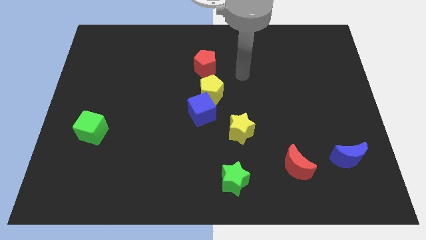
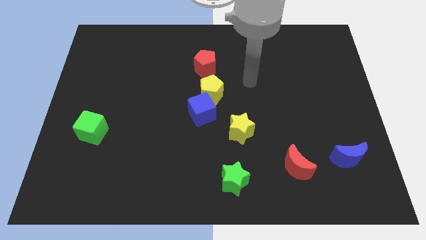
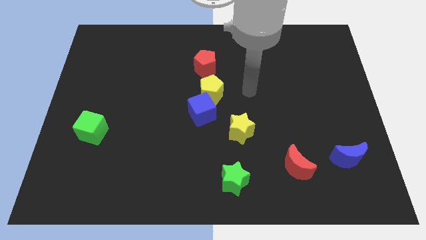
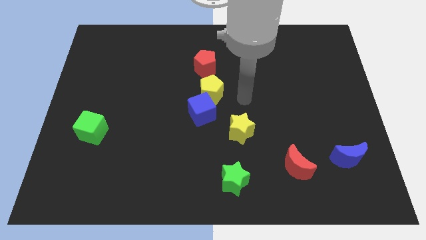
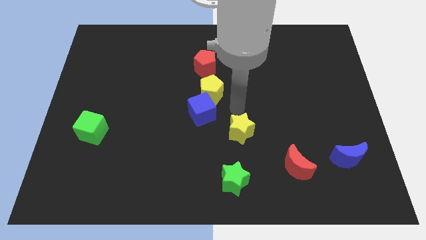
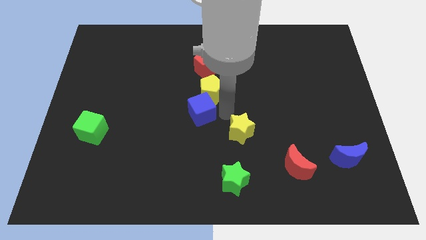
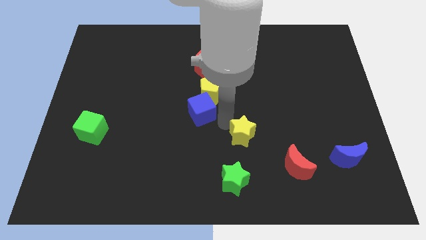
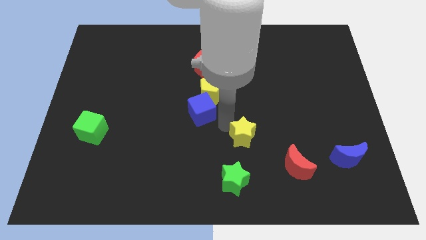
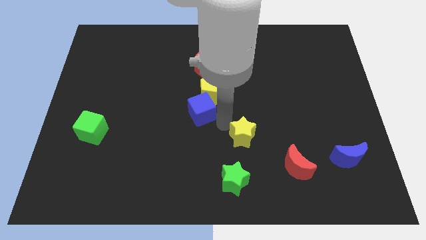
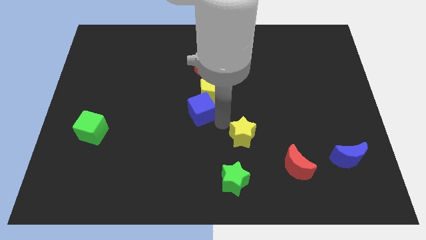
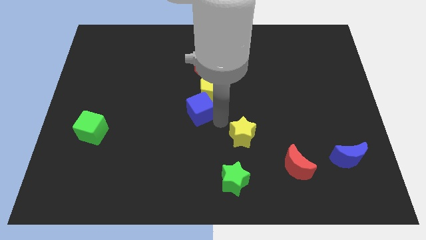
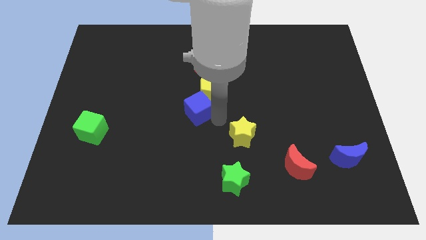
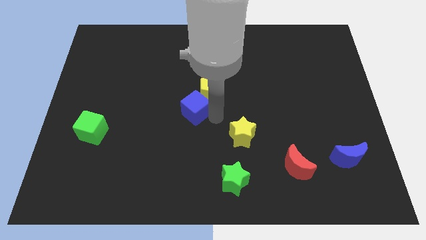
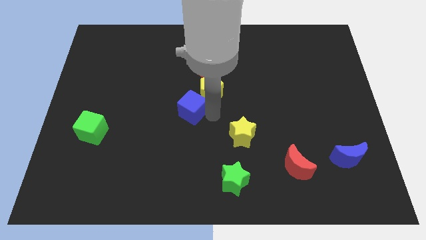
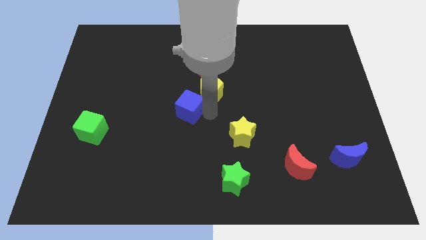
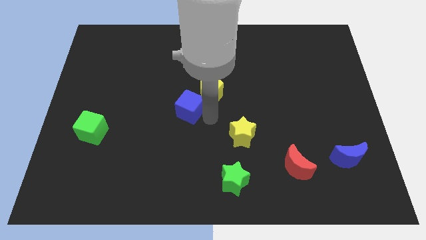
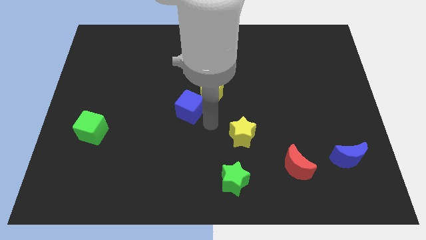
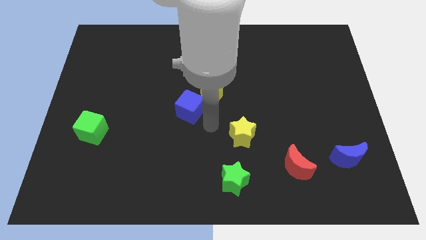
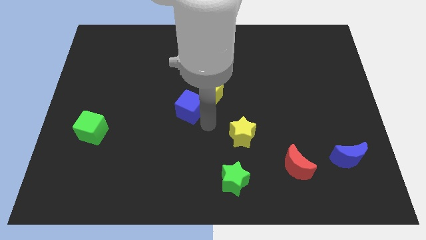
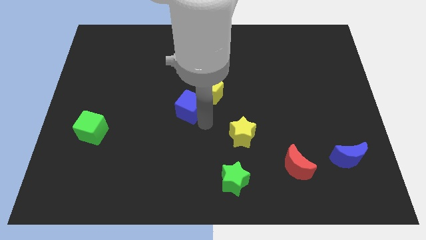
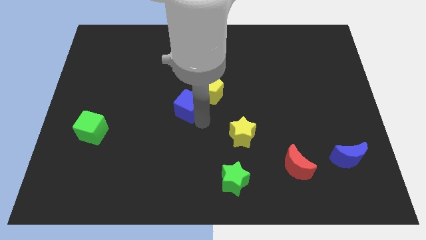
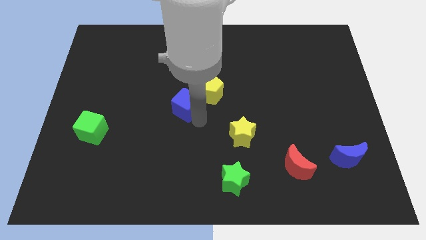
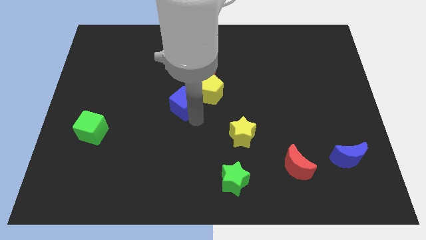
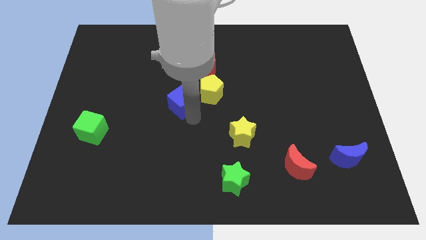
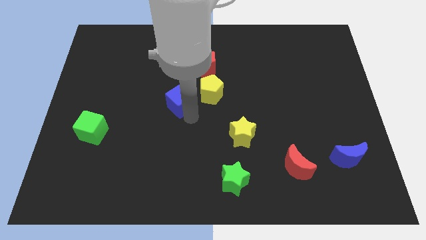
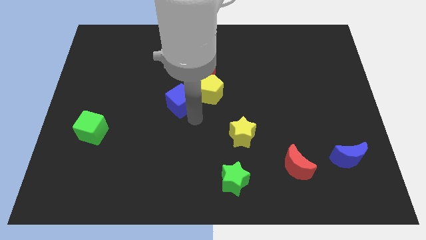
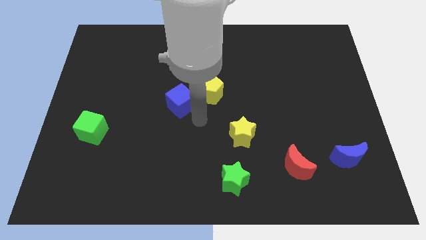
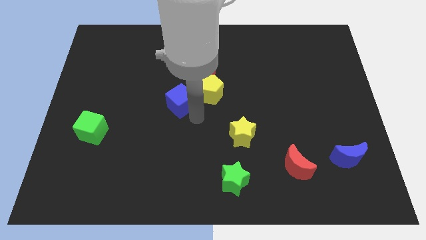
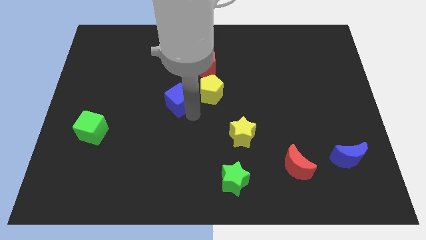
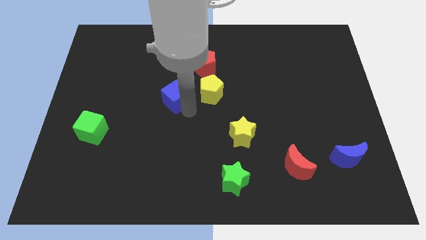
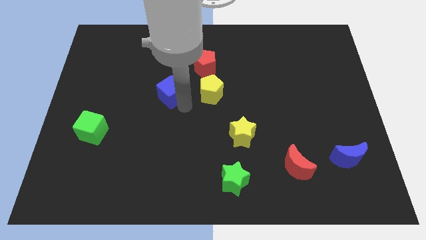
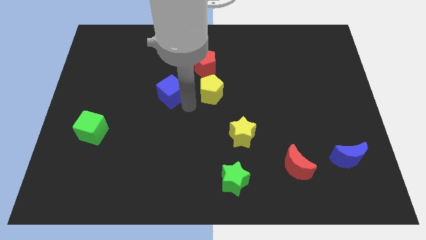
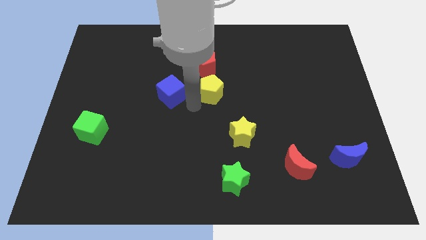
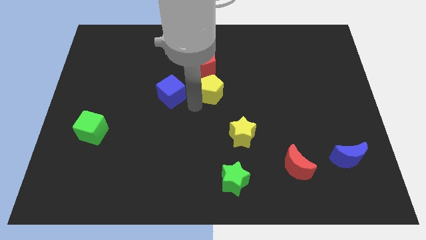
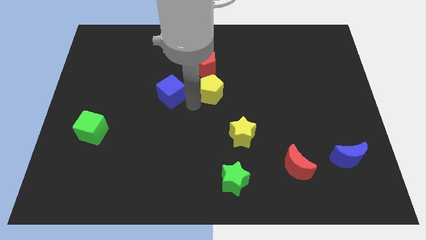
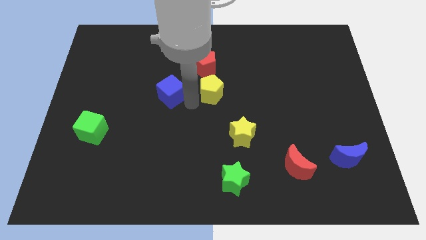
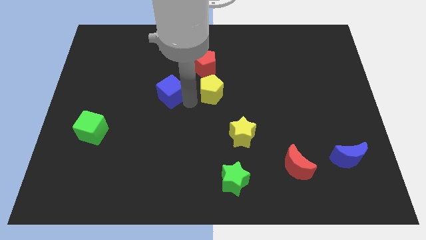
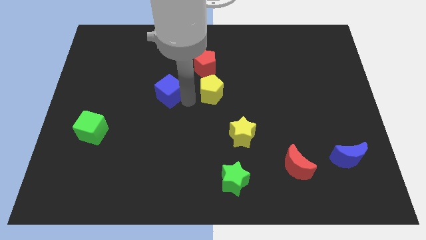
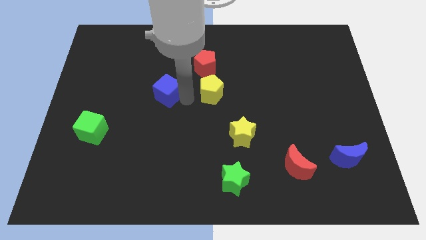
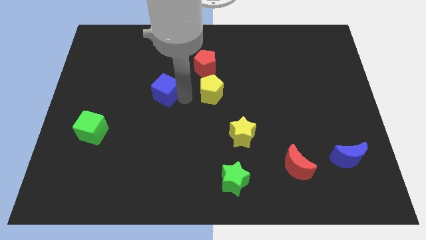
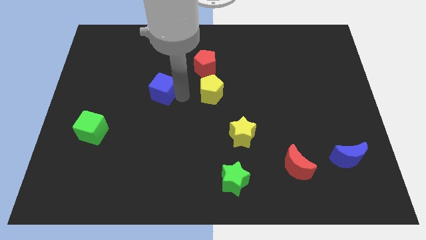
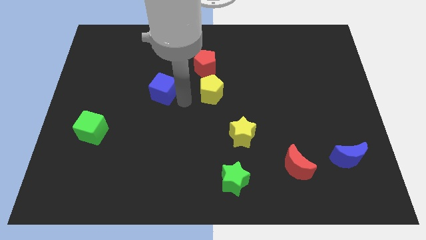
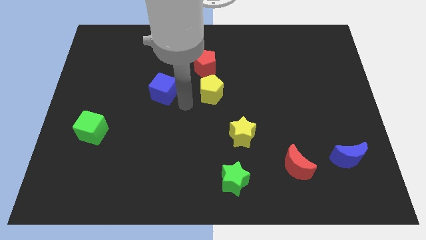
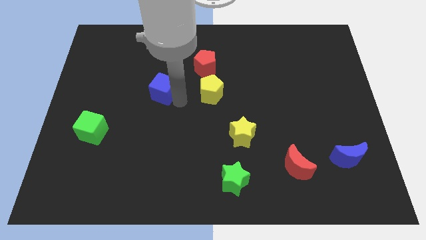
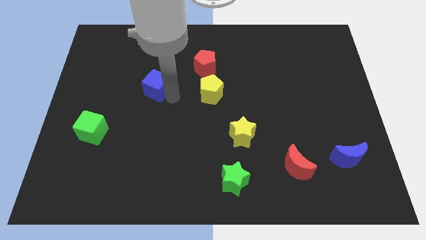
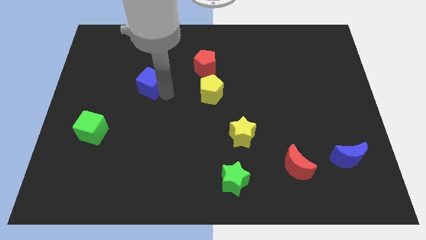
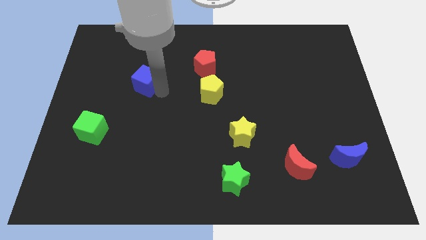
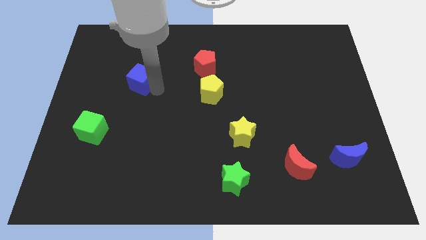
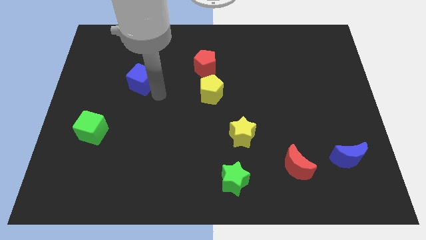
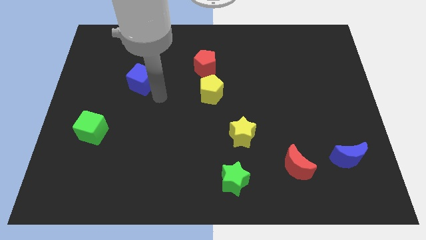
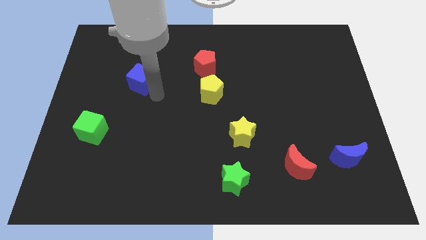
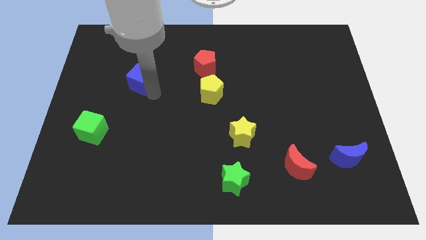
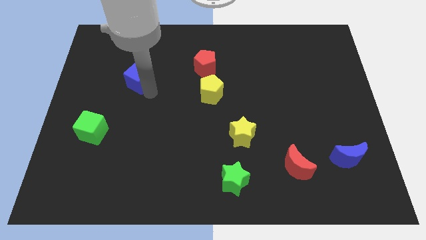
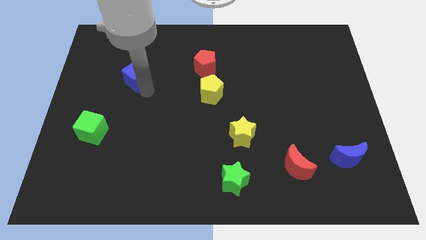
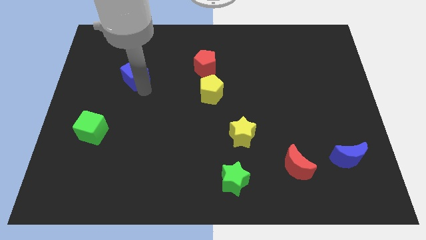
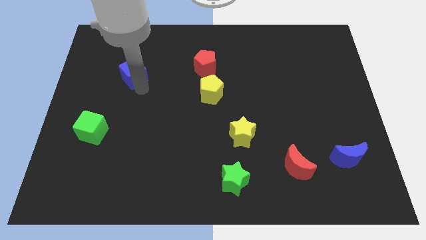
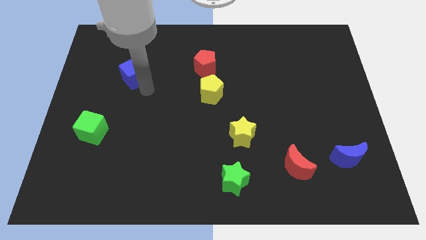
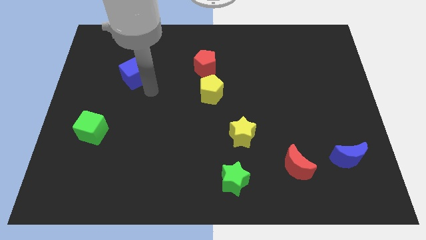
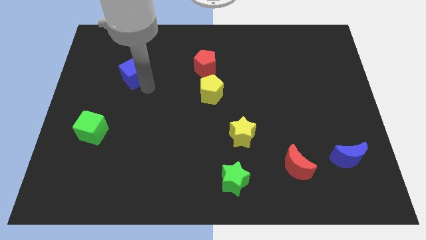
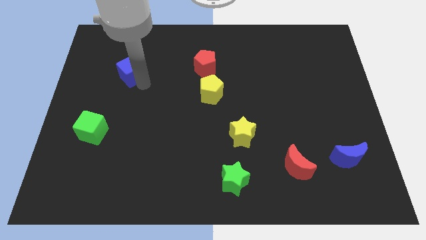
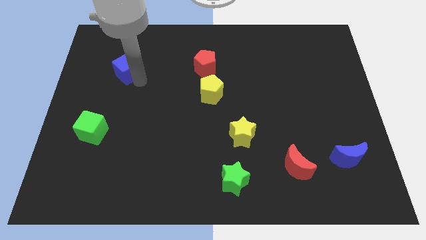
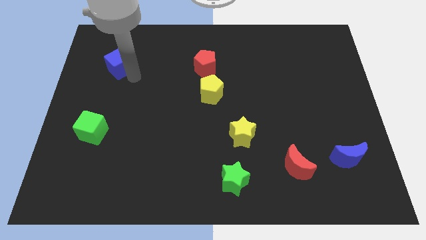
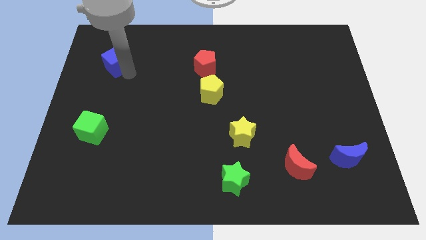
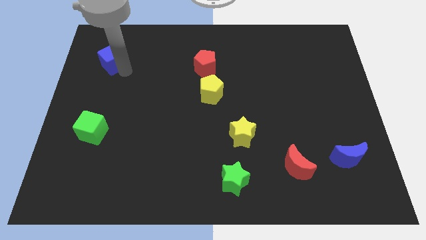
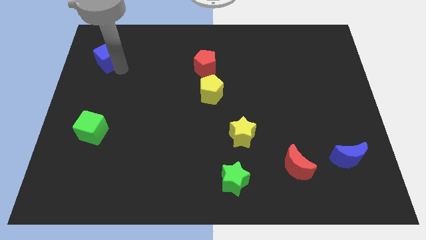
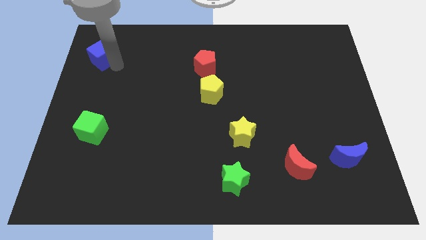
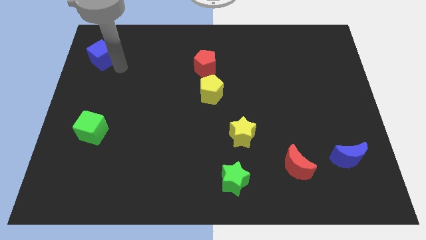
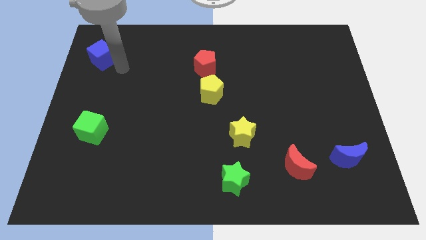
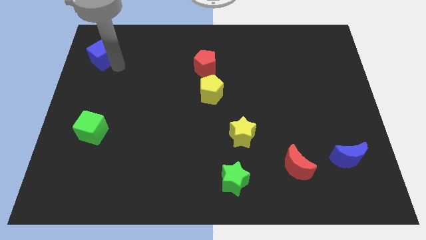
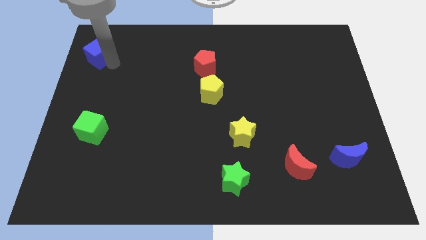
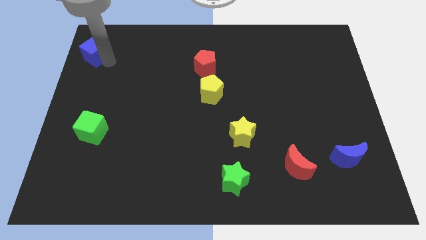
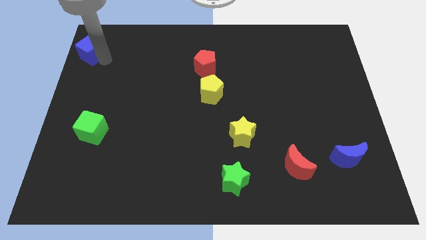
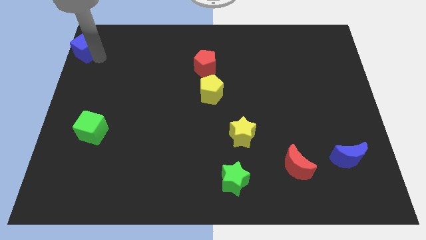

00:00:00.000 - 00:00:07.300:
push the blue cube to the upper left corner
